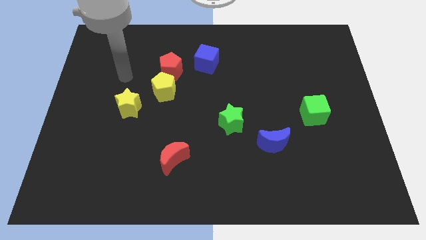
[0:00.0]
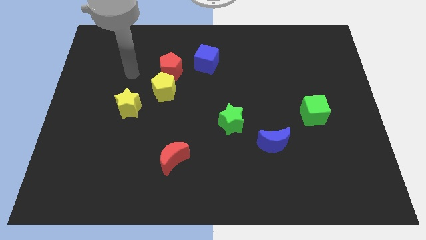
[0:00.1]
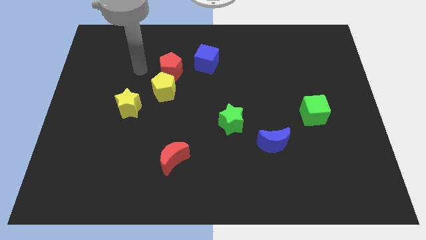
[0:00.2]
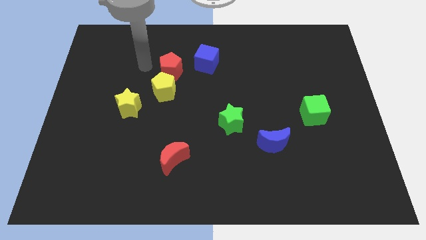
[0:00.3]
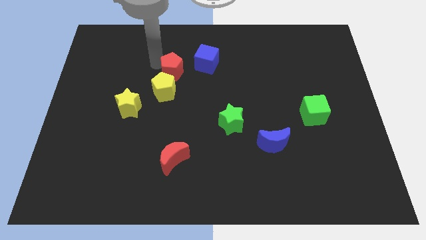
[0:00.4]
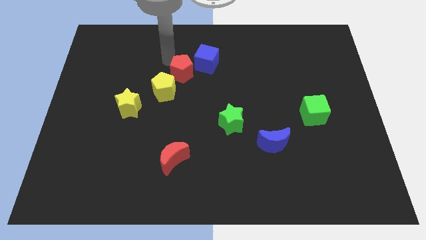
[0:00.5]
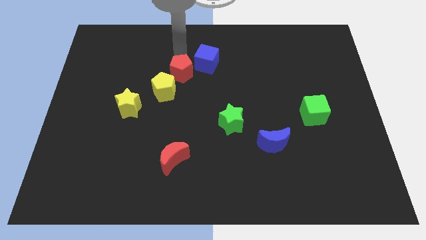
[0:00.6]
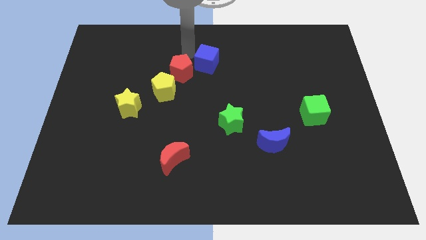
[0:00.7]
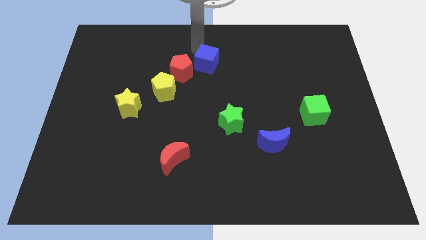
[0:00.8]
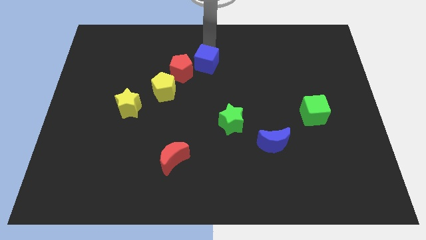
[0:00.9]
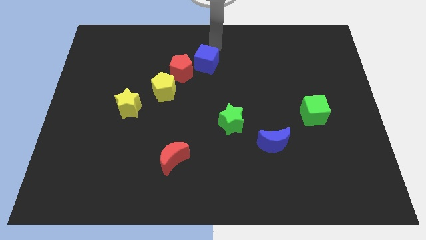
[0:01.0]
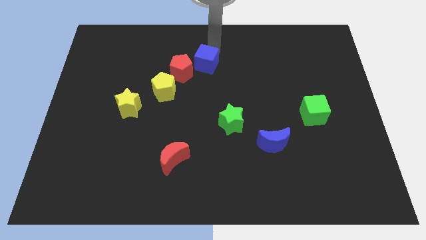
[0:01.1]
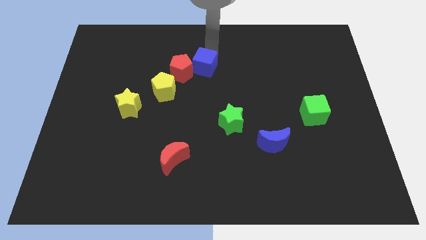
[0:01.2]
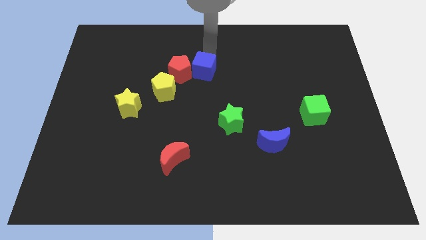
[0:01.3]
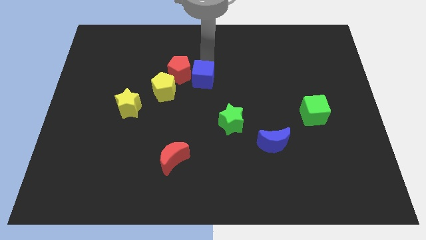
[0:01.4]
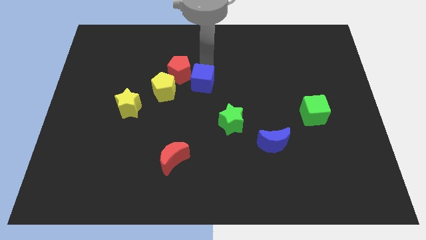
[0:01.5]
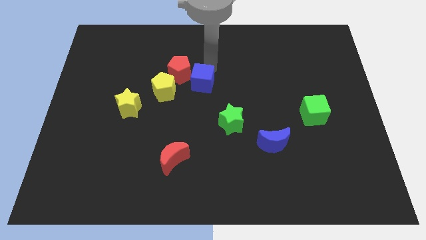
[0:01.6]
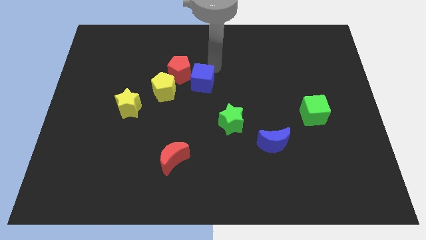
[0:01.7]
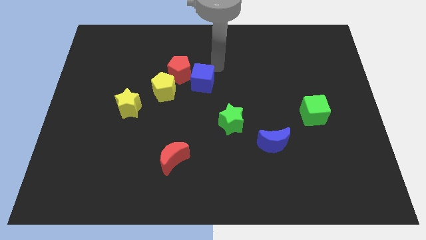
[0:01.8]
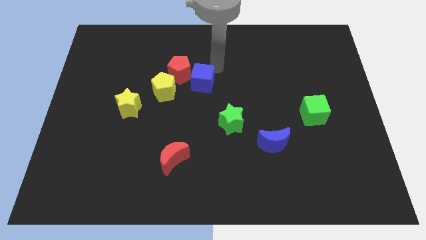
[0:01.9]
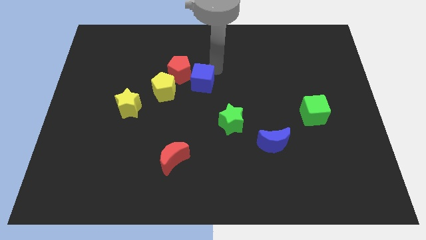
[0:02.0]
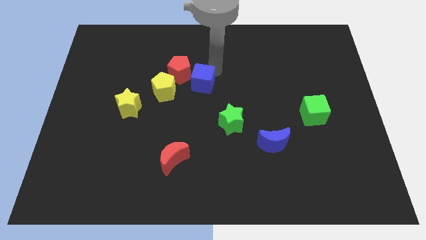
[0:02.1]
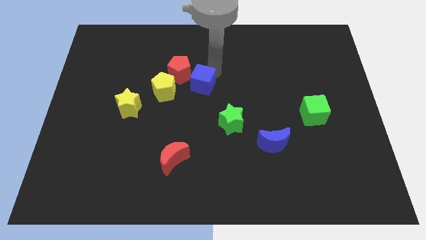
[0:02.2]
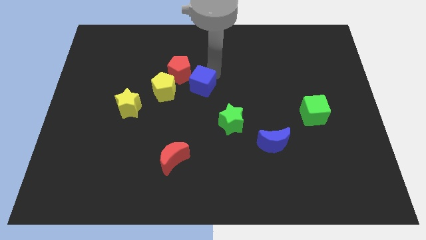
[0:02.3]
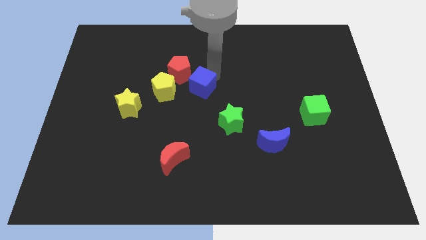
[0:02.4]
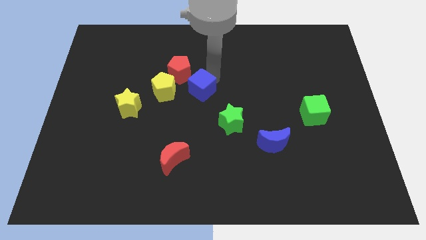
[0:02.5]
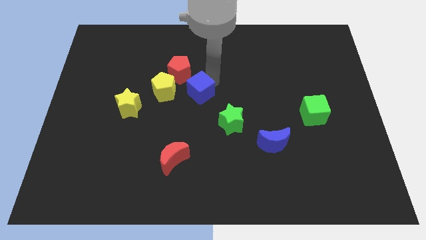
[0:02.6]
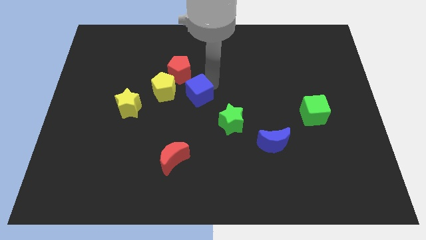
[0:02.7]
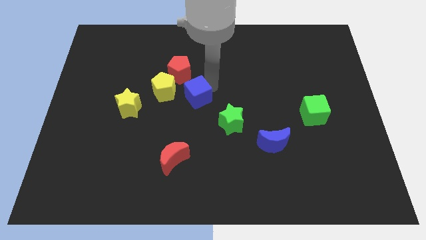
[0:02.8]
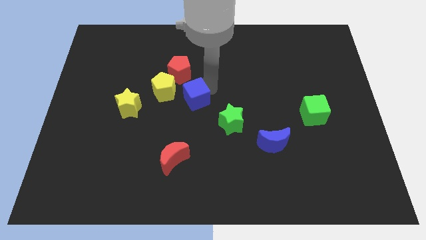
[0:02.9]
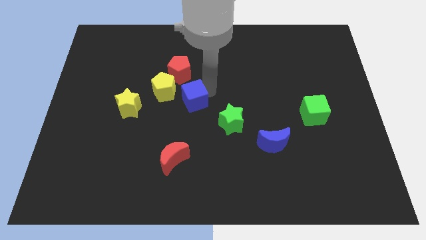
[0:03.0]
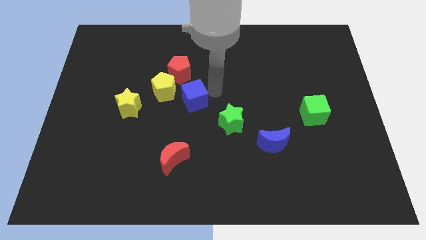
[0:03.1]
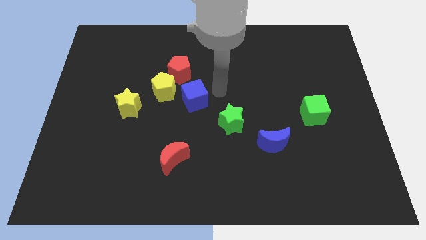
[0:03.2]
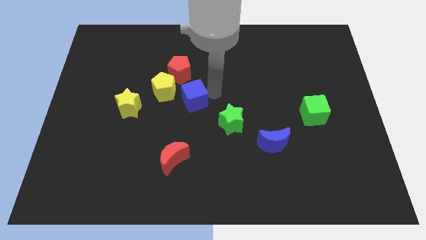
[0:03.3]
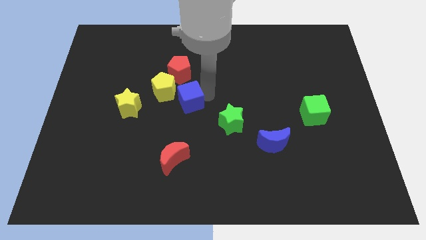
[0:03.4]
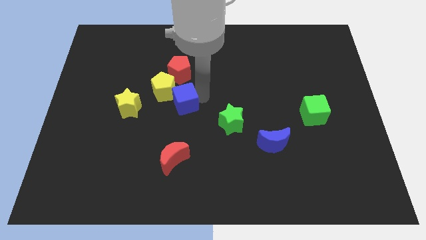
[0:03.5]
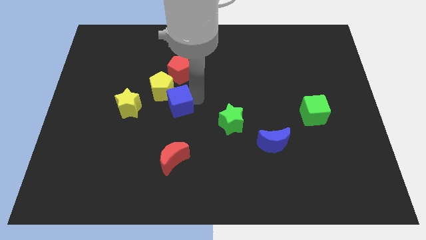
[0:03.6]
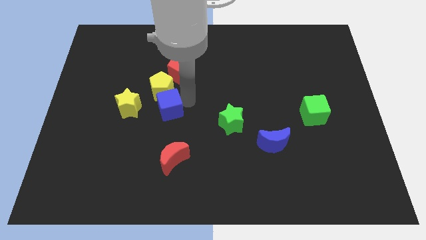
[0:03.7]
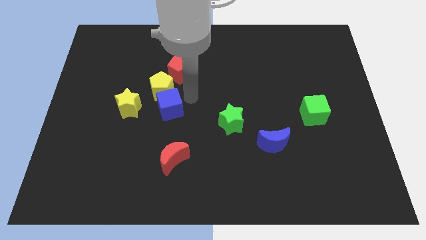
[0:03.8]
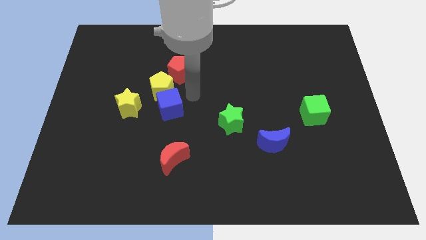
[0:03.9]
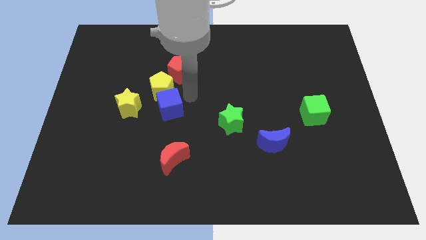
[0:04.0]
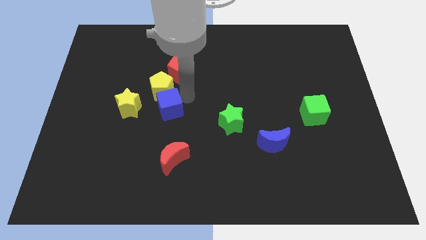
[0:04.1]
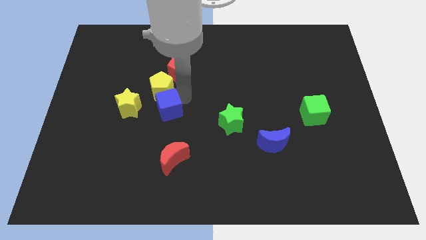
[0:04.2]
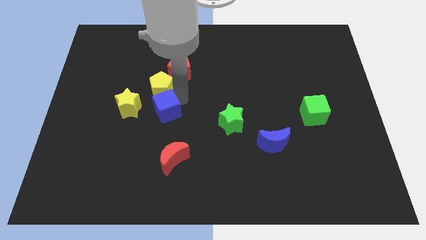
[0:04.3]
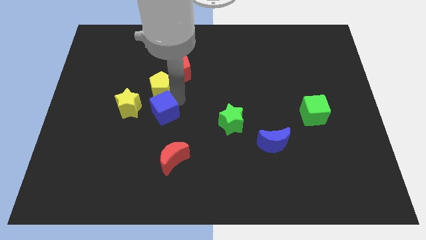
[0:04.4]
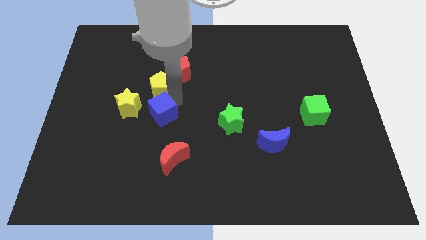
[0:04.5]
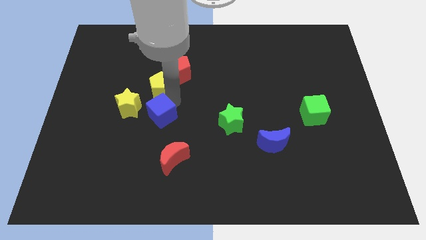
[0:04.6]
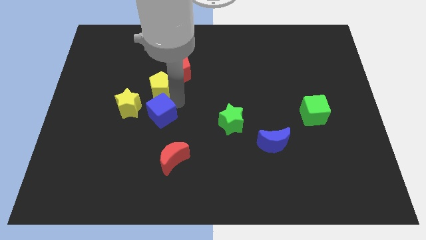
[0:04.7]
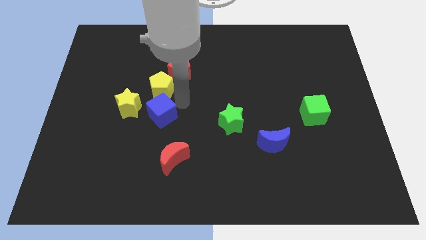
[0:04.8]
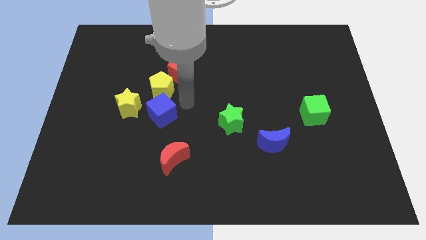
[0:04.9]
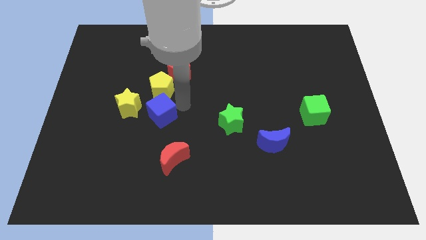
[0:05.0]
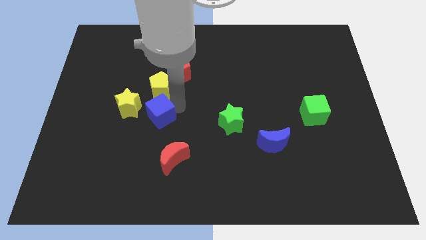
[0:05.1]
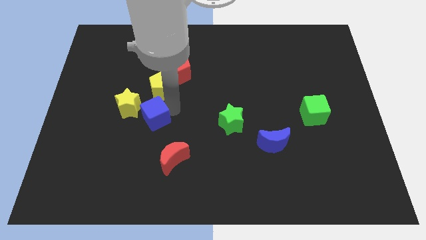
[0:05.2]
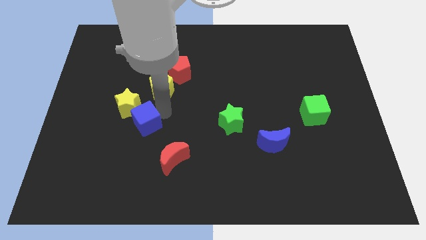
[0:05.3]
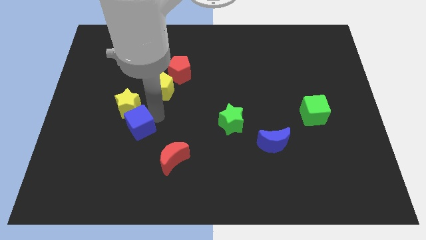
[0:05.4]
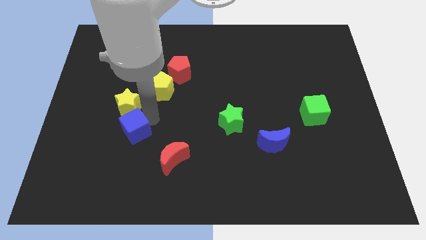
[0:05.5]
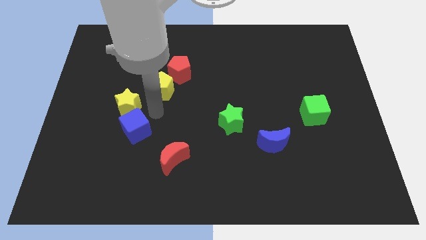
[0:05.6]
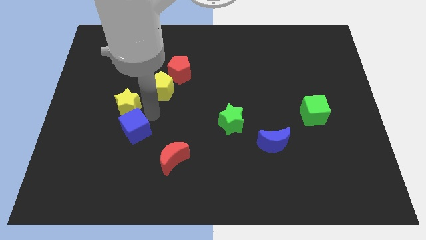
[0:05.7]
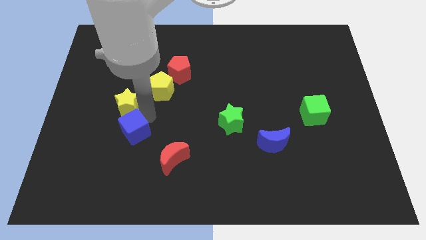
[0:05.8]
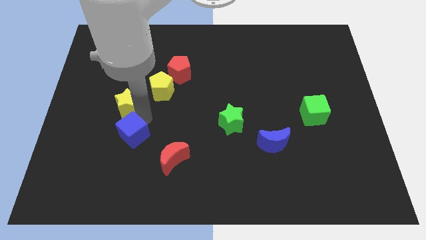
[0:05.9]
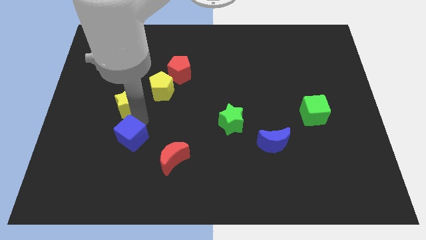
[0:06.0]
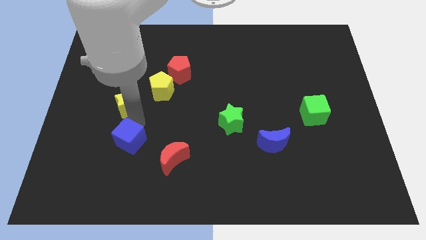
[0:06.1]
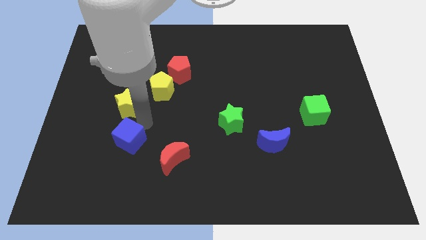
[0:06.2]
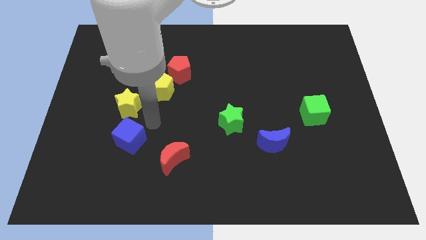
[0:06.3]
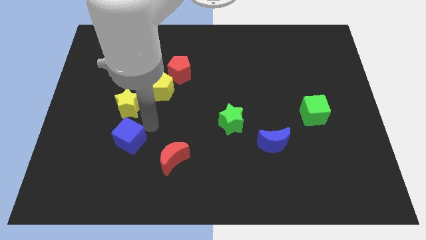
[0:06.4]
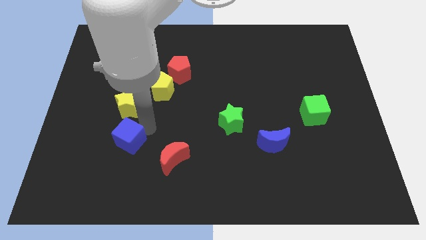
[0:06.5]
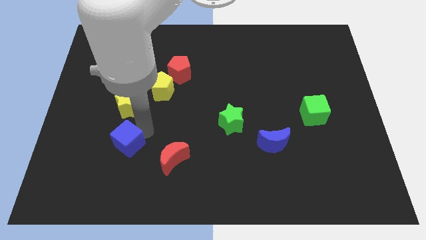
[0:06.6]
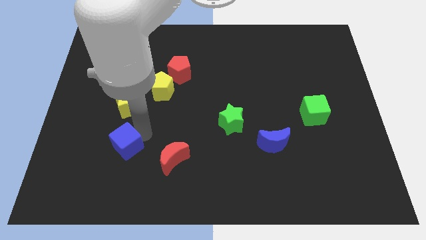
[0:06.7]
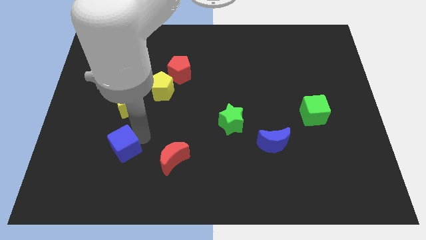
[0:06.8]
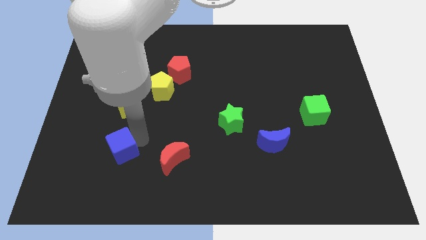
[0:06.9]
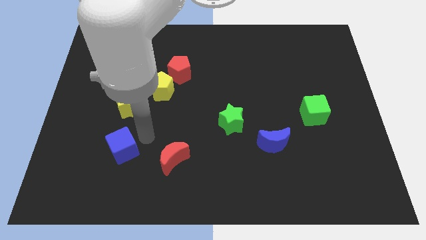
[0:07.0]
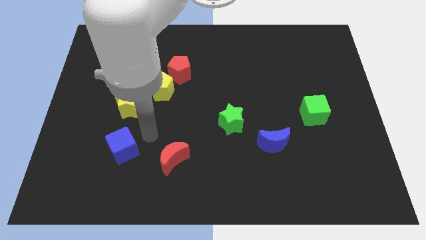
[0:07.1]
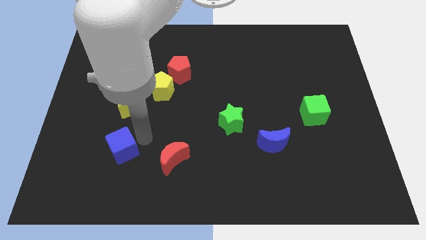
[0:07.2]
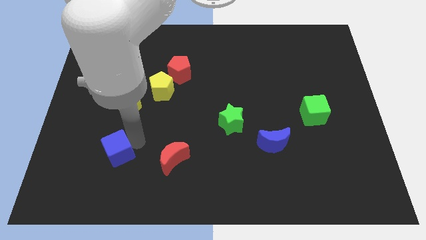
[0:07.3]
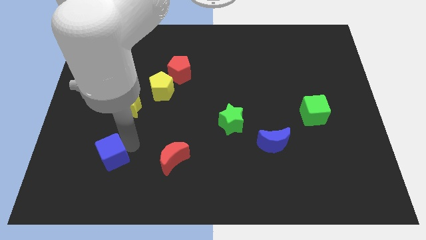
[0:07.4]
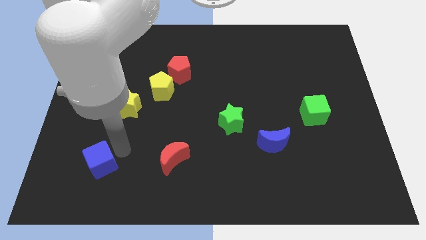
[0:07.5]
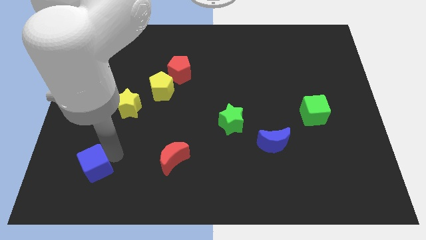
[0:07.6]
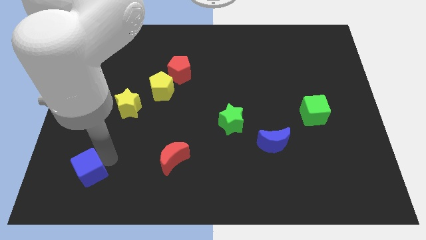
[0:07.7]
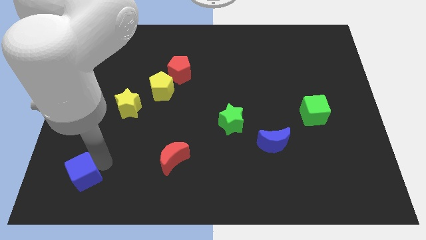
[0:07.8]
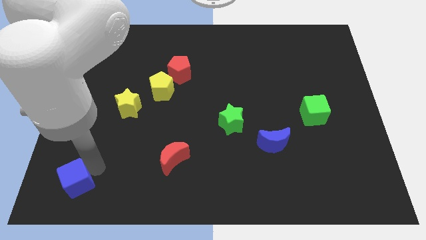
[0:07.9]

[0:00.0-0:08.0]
put the blue cube to the bottom left of the board
